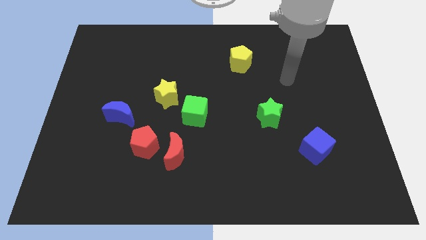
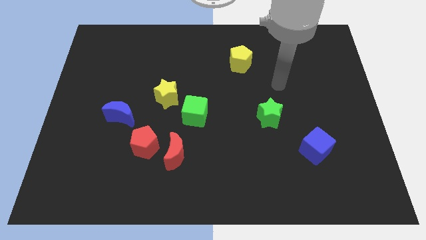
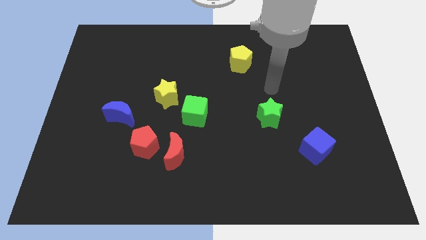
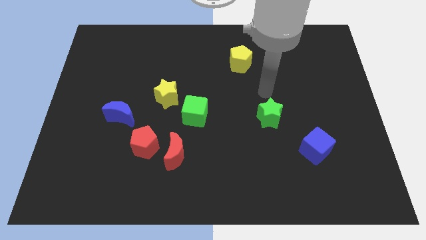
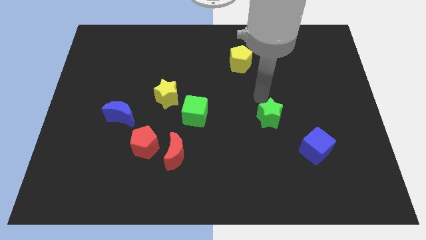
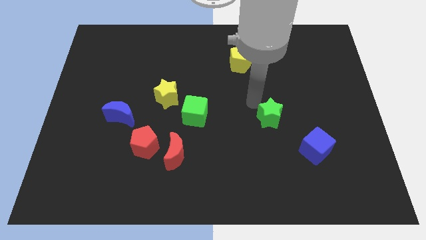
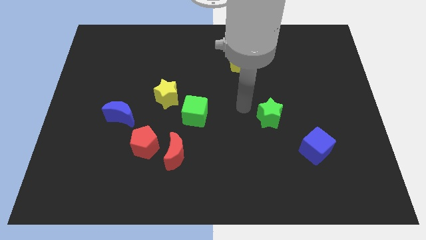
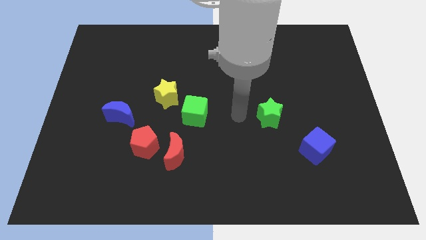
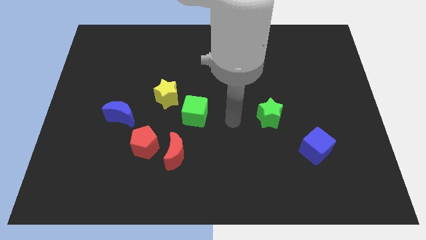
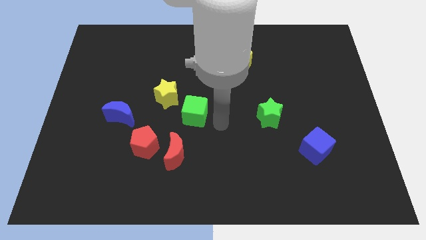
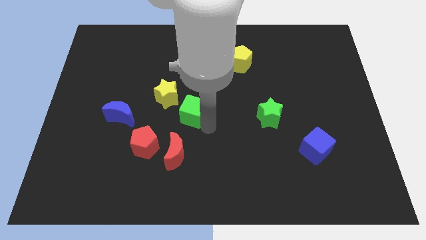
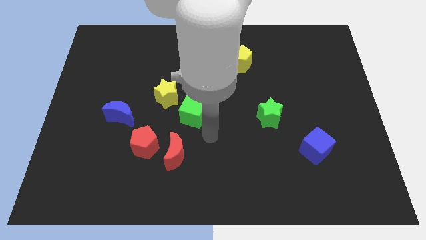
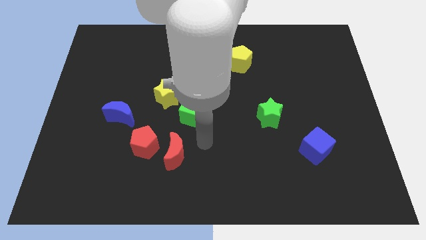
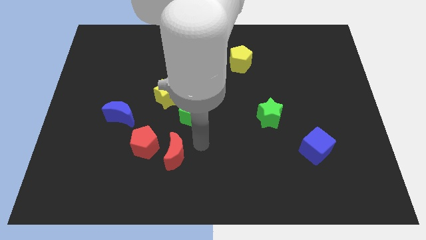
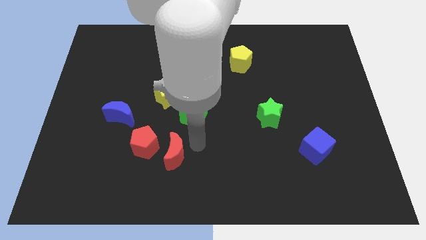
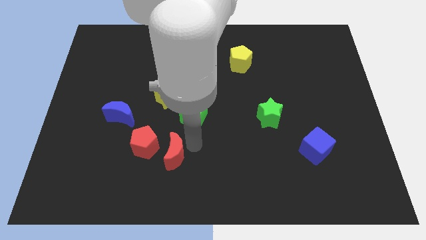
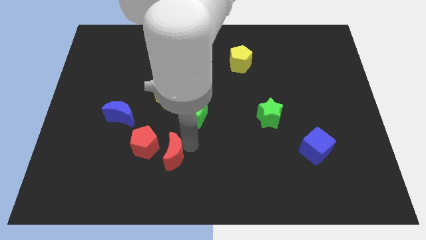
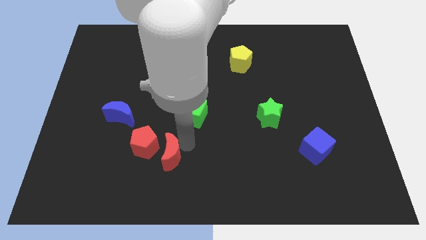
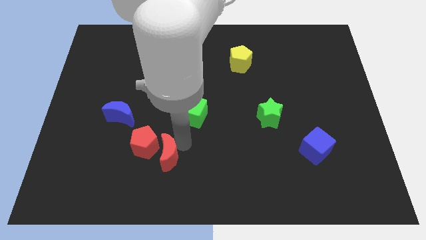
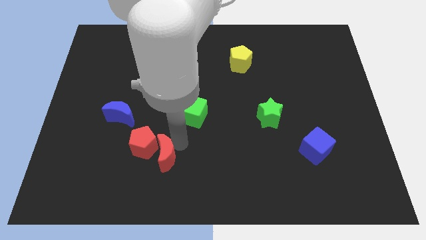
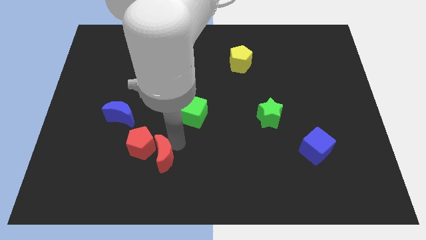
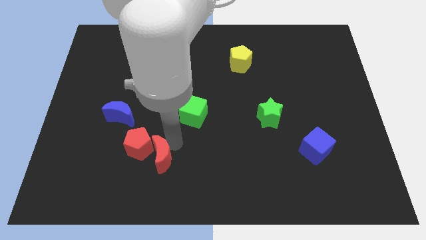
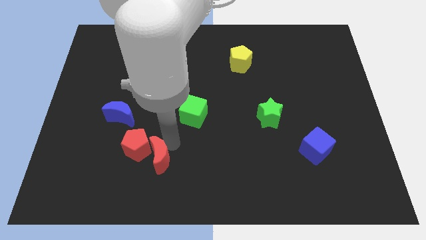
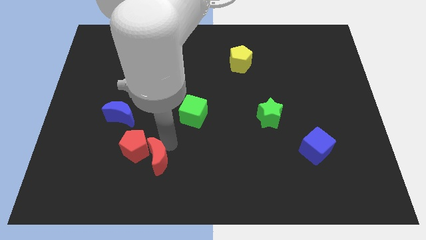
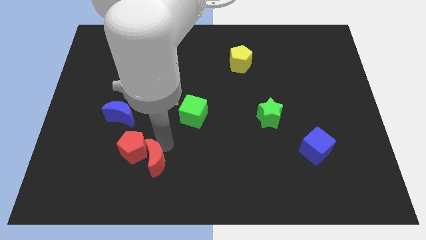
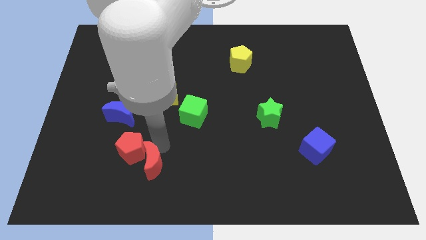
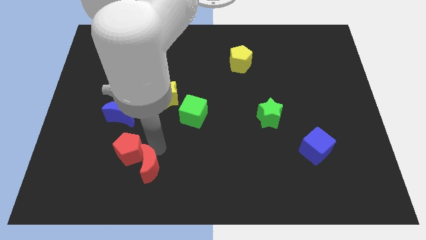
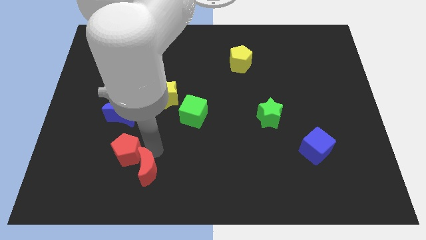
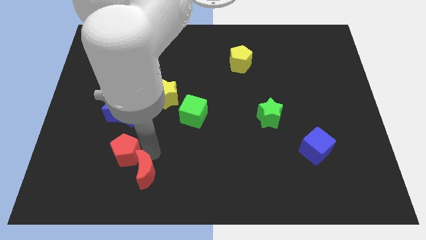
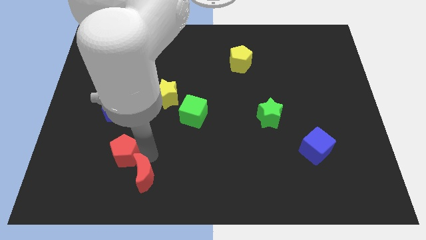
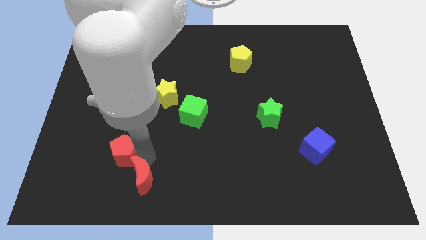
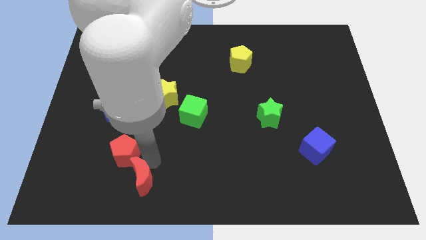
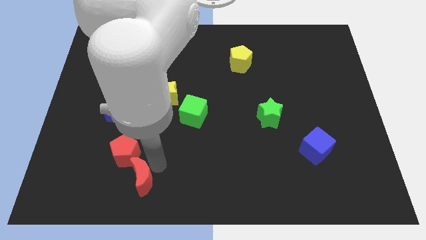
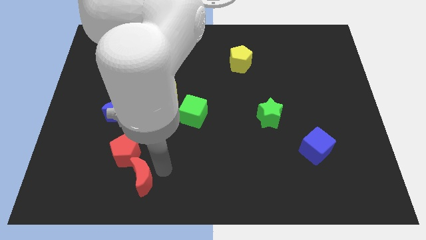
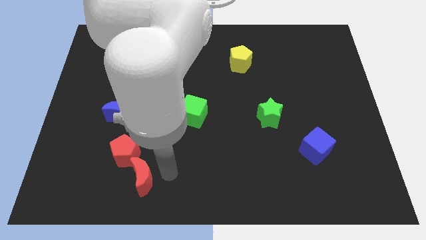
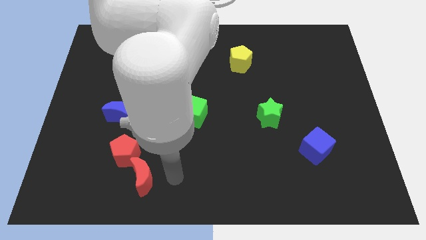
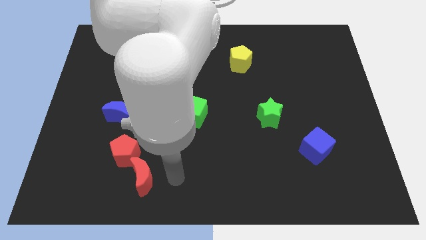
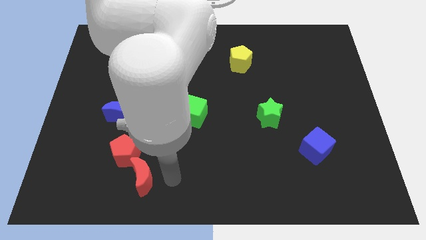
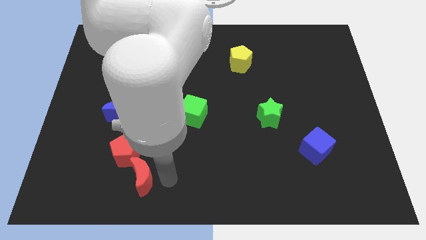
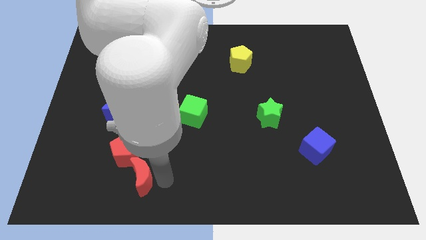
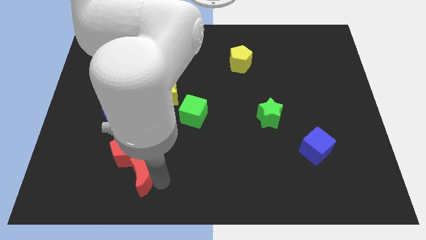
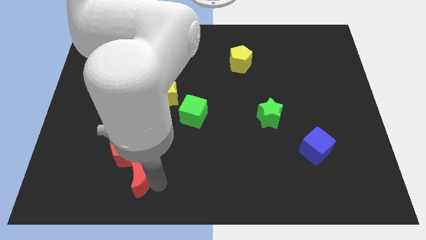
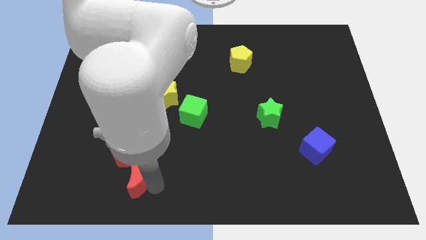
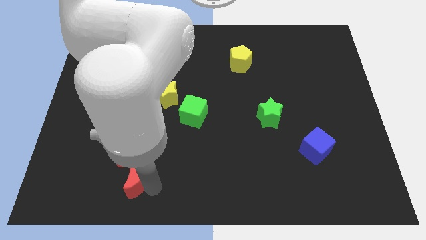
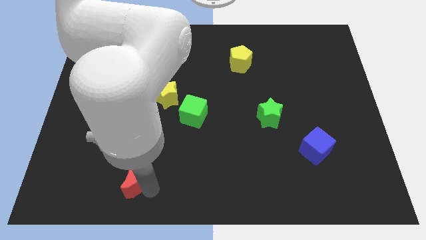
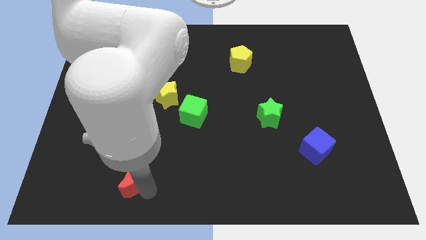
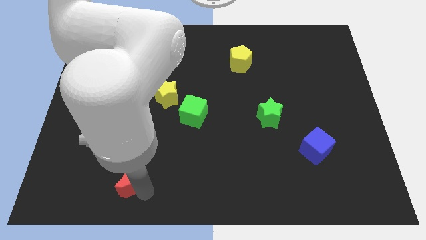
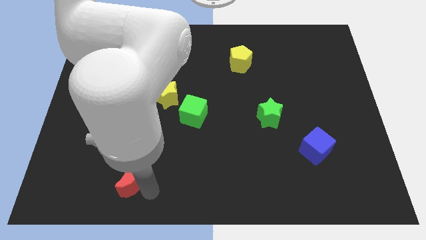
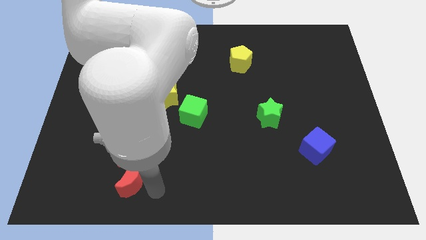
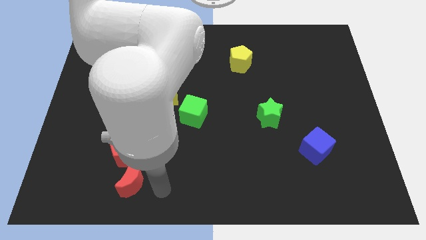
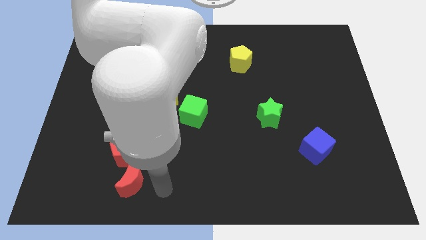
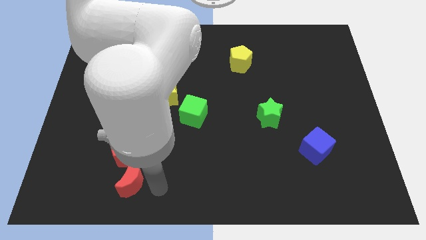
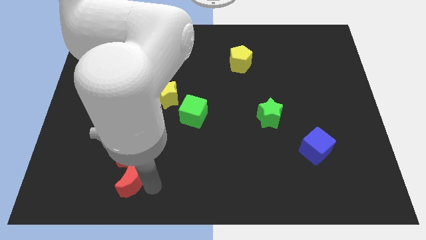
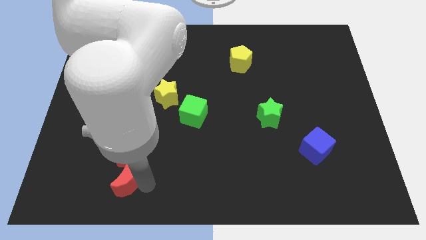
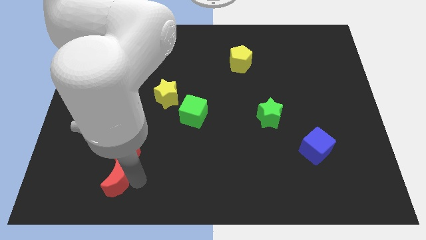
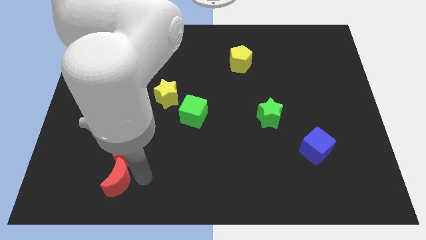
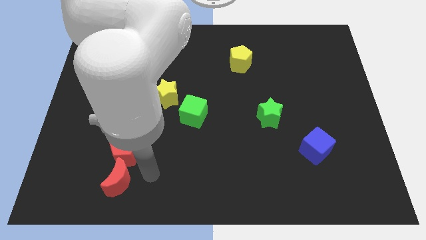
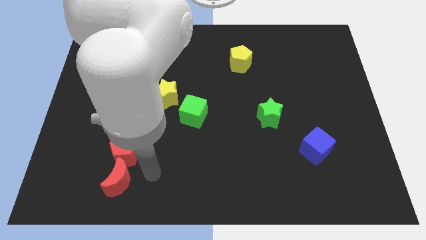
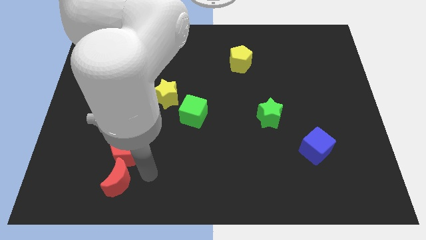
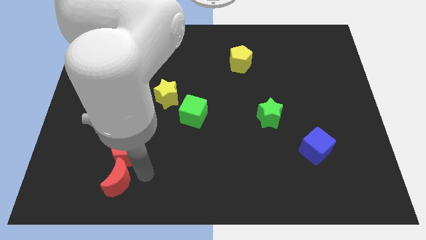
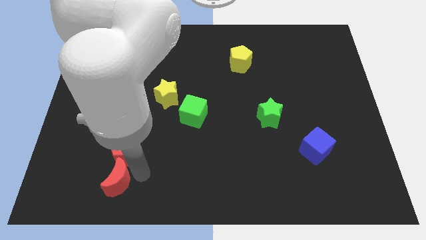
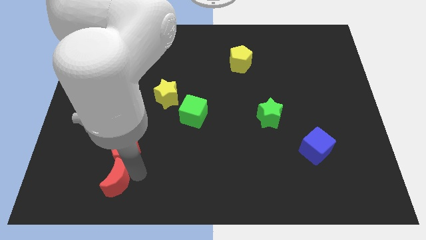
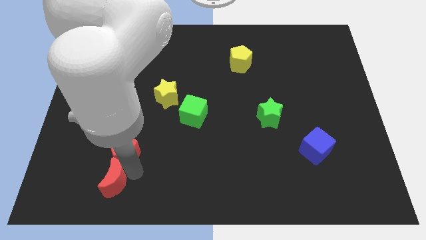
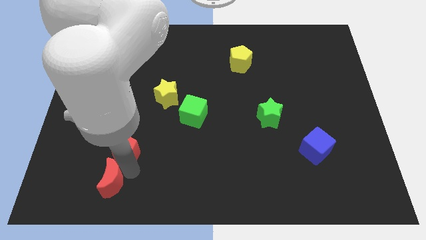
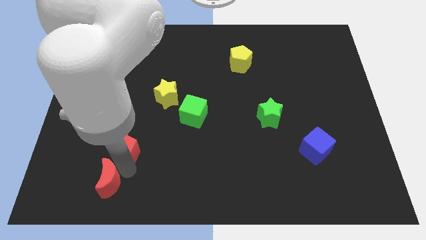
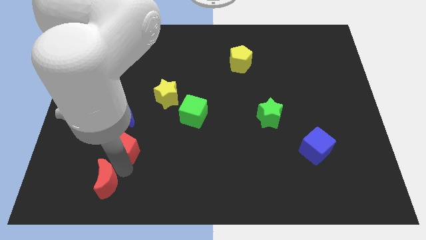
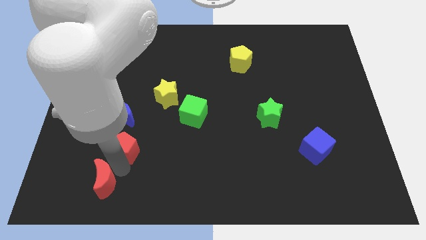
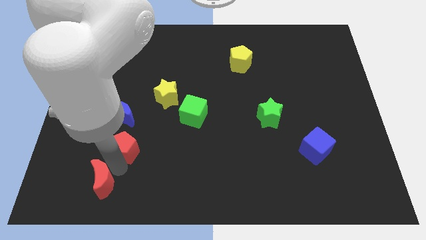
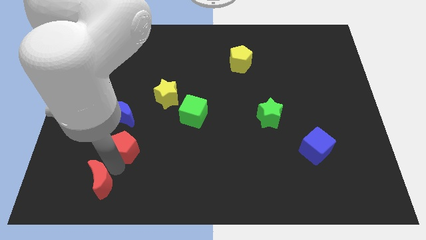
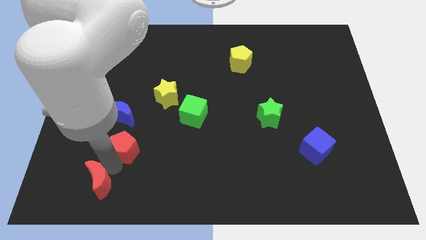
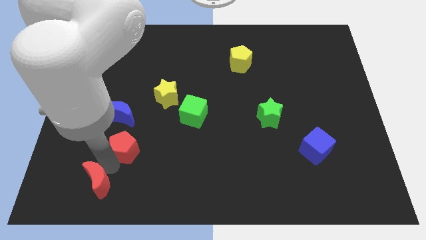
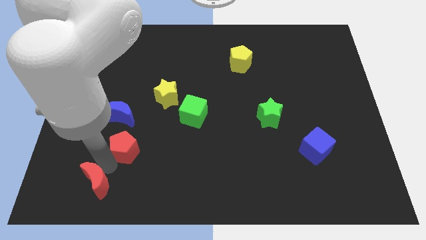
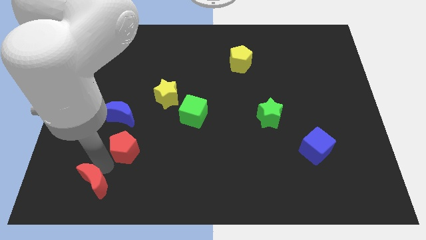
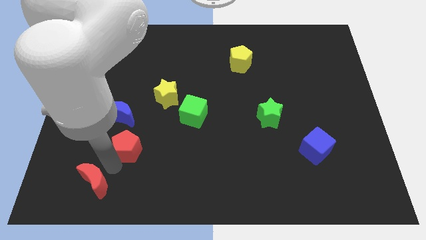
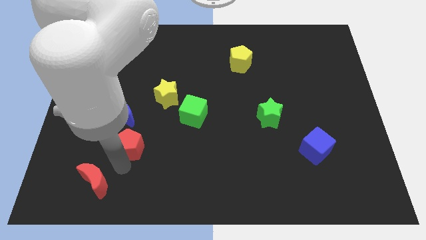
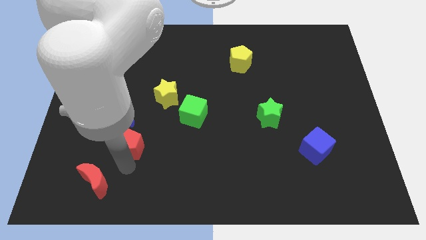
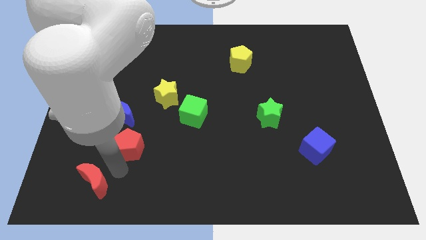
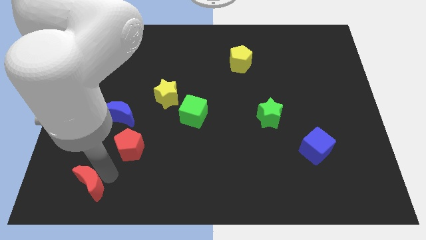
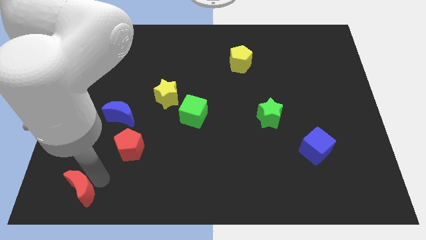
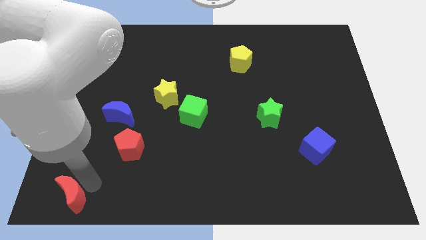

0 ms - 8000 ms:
push the red moon to the bottom left corner
